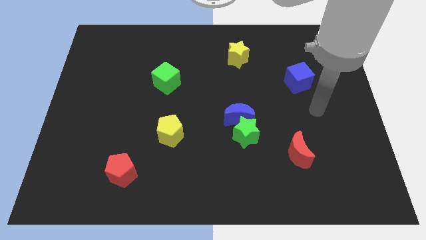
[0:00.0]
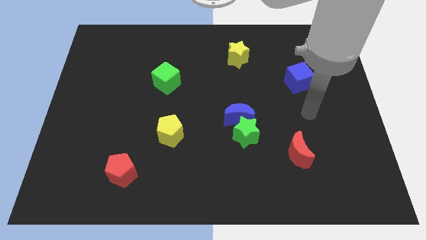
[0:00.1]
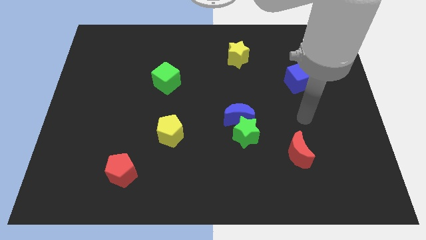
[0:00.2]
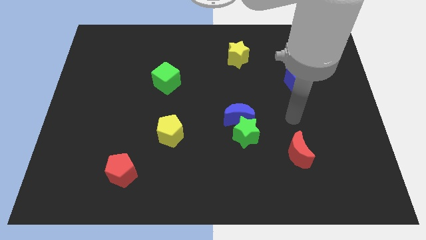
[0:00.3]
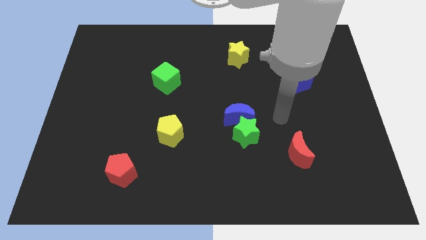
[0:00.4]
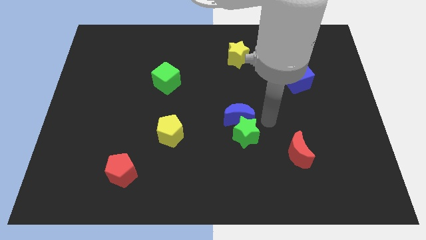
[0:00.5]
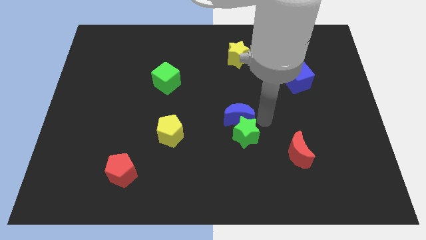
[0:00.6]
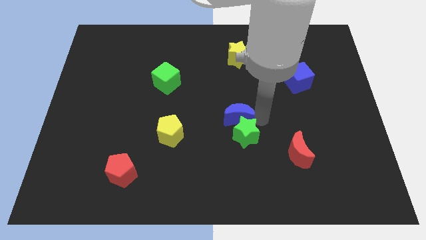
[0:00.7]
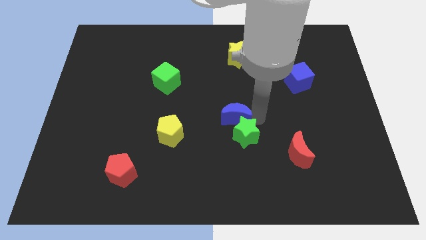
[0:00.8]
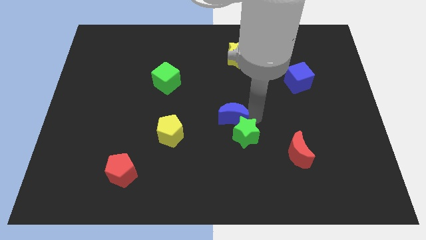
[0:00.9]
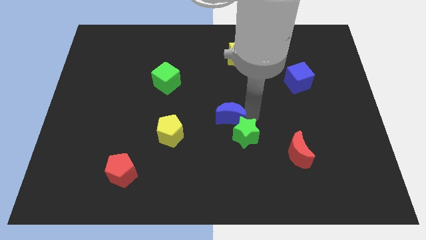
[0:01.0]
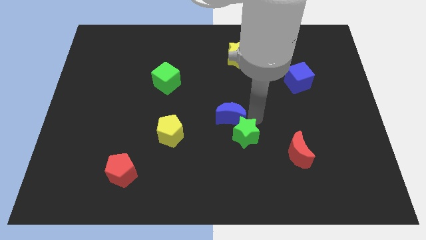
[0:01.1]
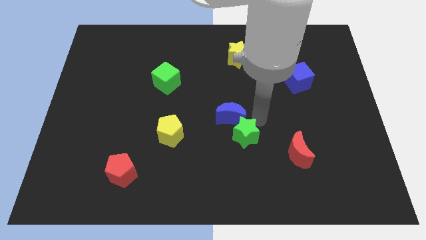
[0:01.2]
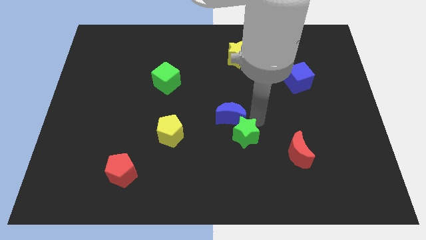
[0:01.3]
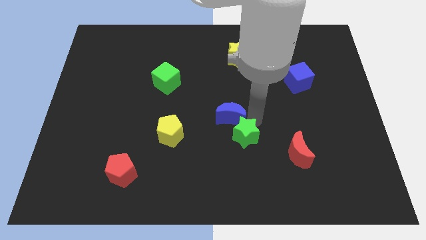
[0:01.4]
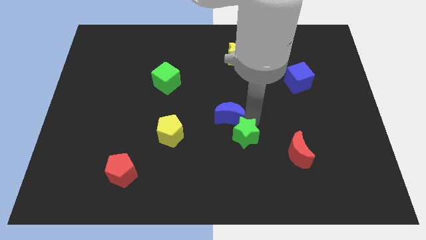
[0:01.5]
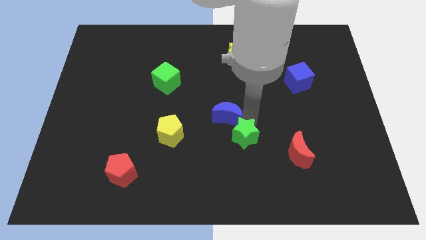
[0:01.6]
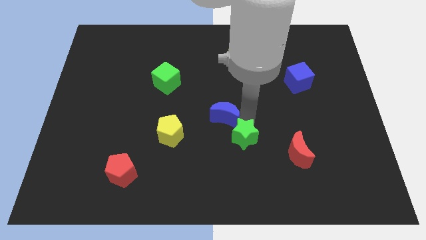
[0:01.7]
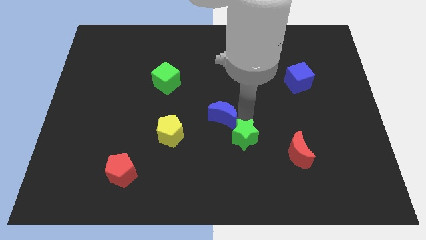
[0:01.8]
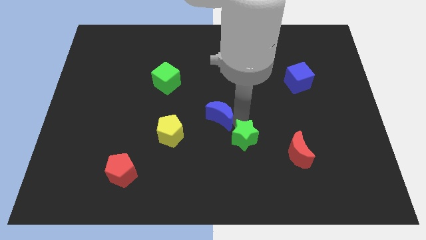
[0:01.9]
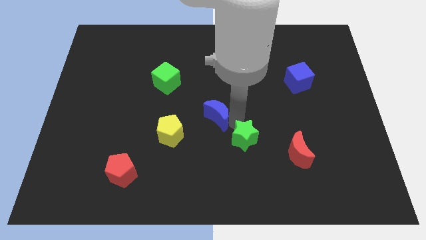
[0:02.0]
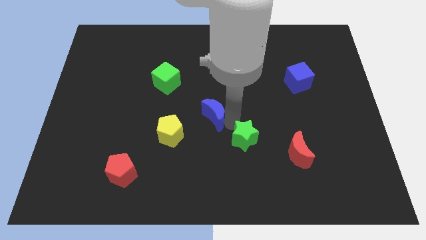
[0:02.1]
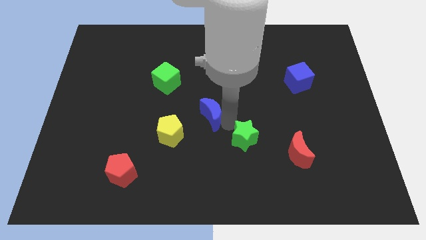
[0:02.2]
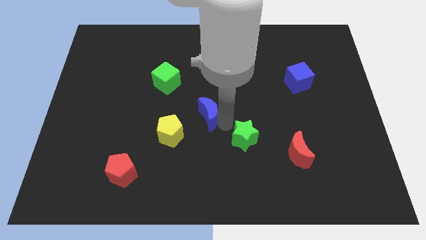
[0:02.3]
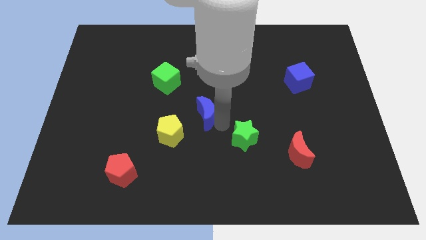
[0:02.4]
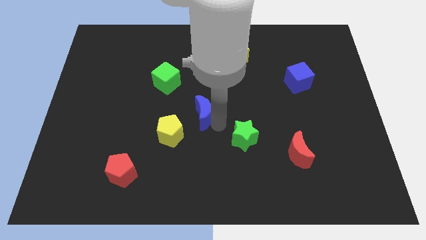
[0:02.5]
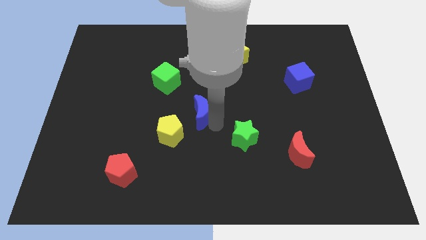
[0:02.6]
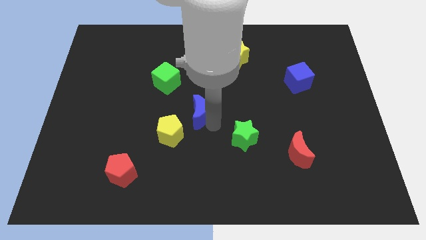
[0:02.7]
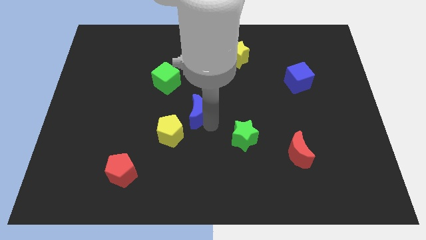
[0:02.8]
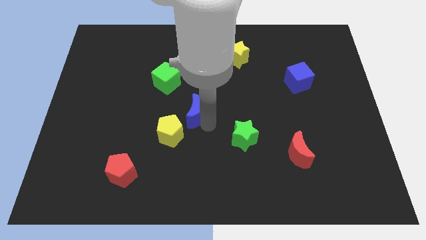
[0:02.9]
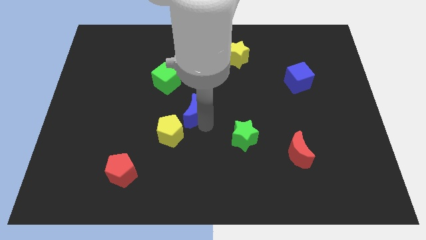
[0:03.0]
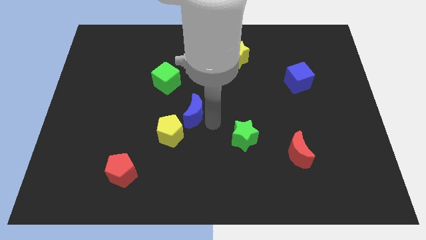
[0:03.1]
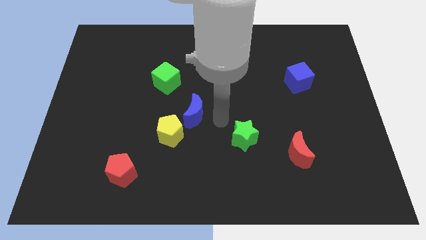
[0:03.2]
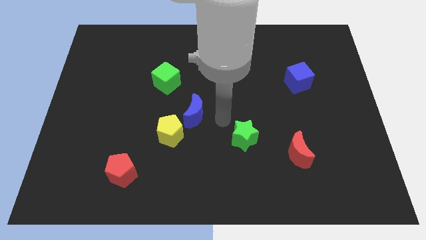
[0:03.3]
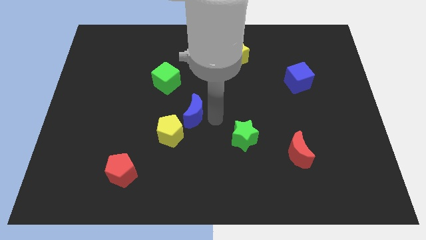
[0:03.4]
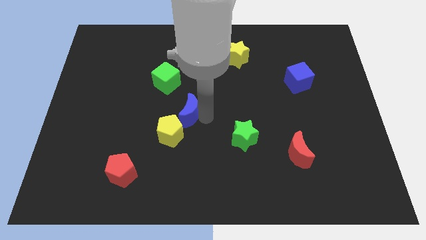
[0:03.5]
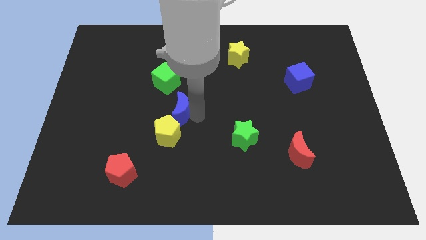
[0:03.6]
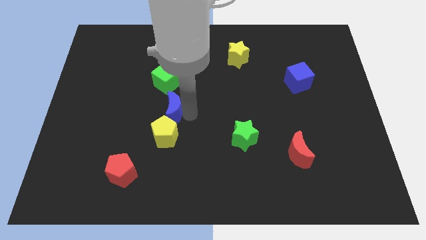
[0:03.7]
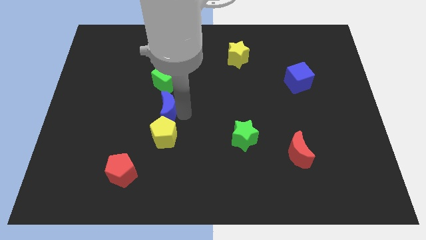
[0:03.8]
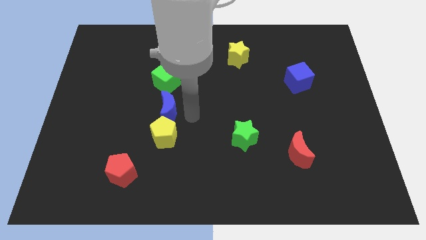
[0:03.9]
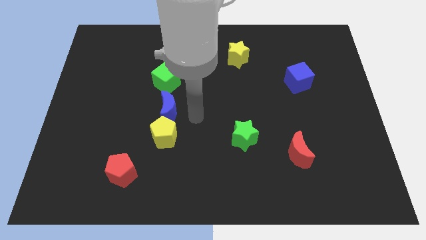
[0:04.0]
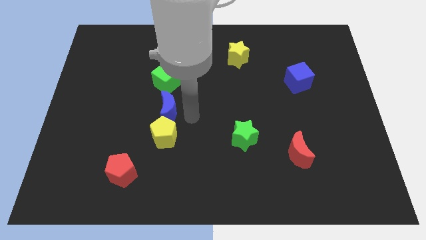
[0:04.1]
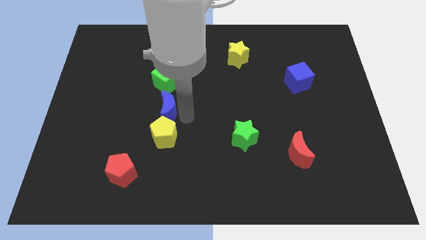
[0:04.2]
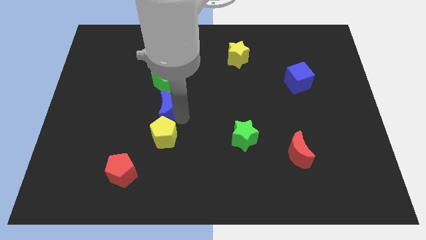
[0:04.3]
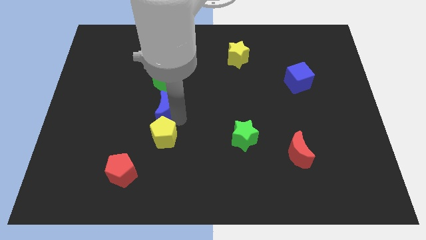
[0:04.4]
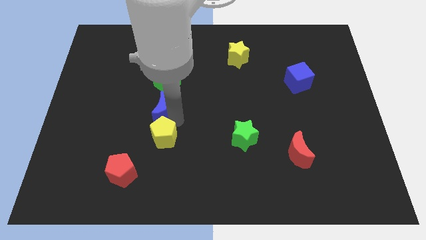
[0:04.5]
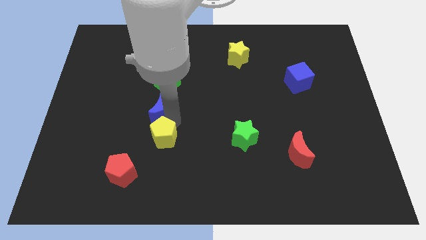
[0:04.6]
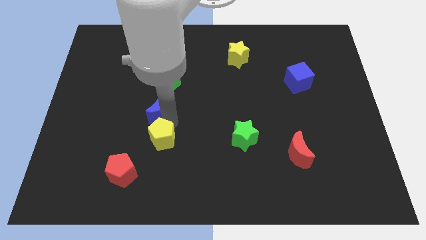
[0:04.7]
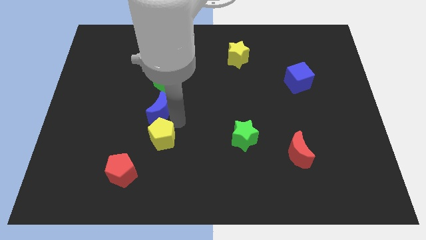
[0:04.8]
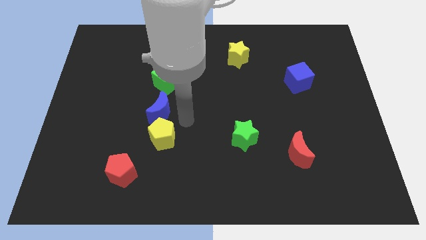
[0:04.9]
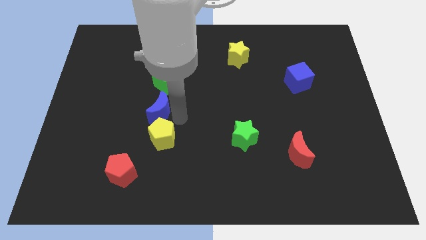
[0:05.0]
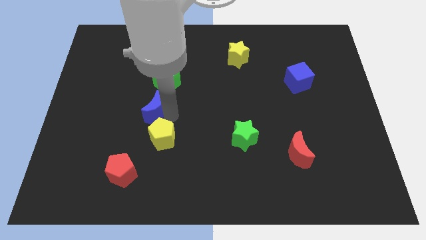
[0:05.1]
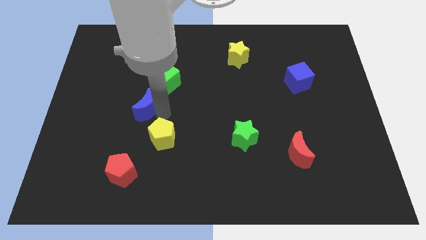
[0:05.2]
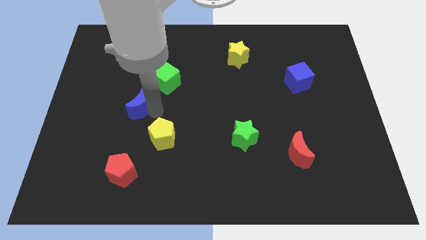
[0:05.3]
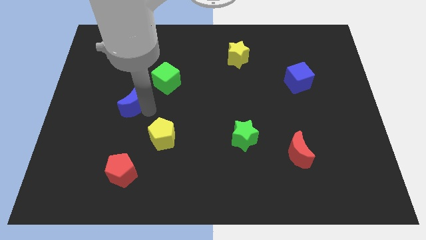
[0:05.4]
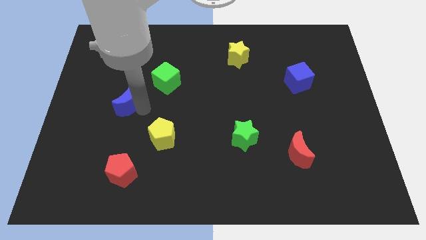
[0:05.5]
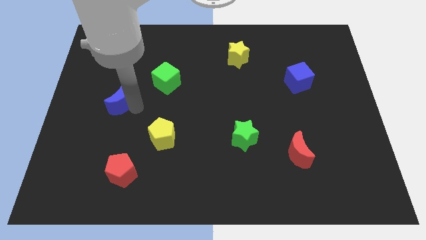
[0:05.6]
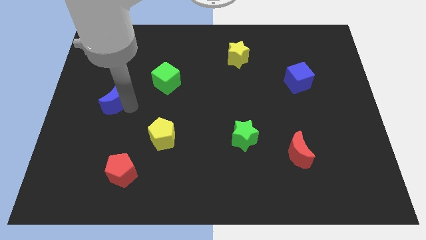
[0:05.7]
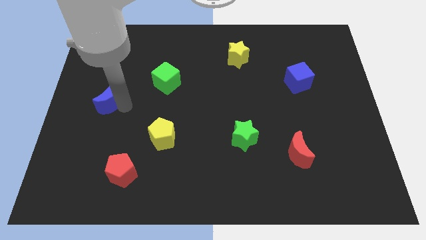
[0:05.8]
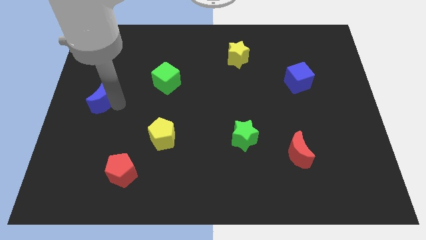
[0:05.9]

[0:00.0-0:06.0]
slide the blue moon to the center left
